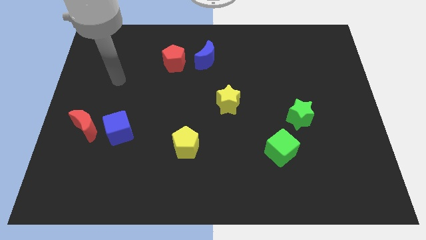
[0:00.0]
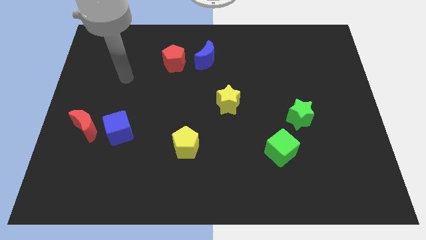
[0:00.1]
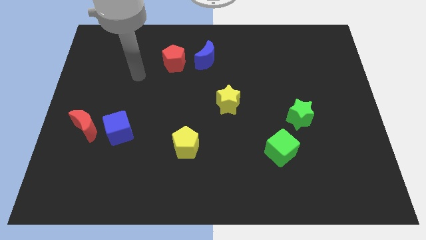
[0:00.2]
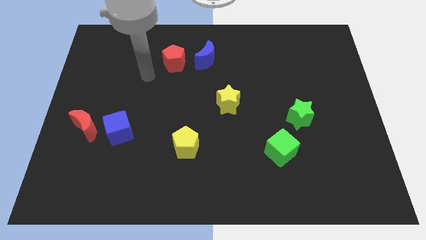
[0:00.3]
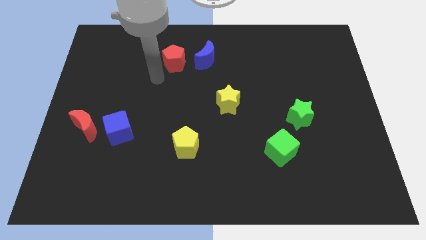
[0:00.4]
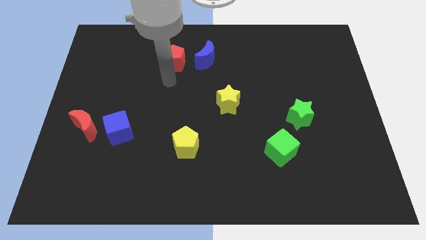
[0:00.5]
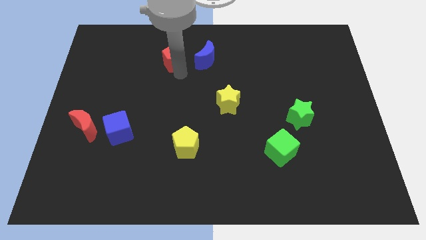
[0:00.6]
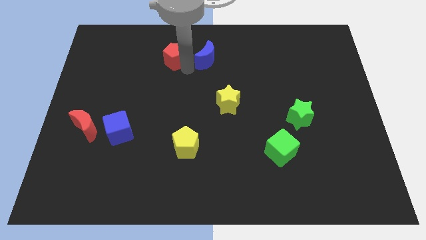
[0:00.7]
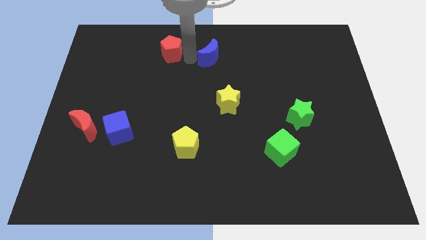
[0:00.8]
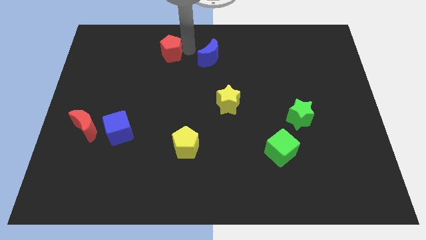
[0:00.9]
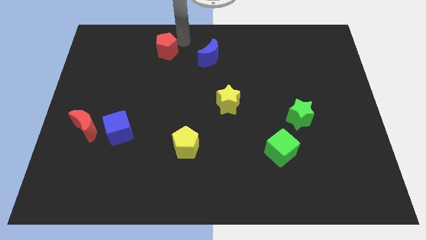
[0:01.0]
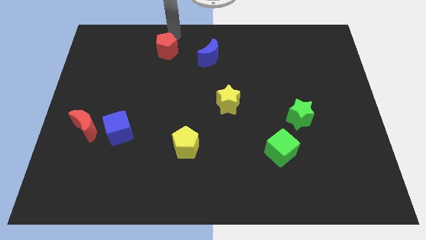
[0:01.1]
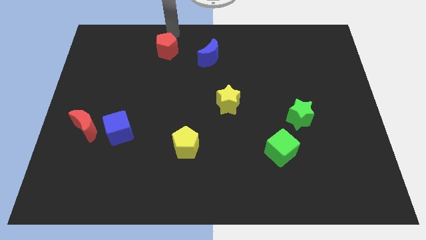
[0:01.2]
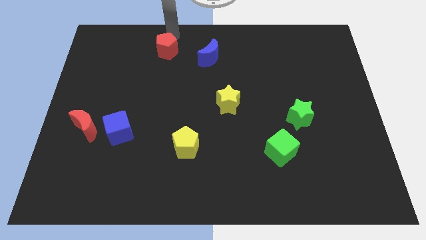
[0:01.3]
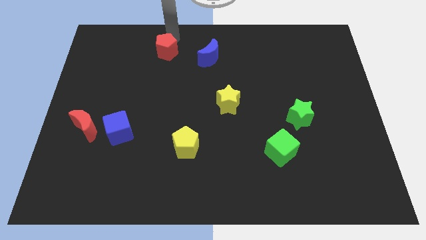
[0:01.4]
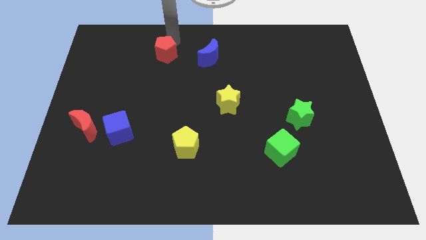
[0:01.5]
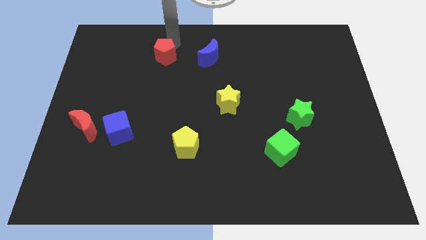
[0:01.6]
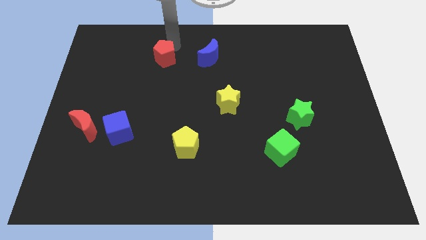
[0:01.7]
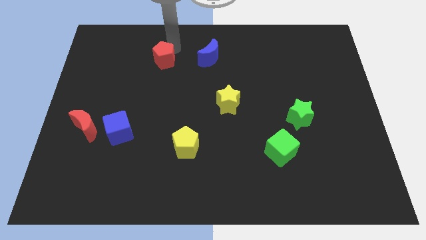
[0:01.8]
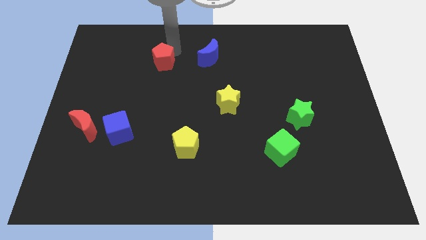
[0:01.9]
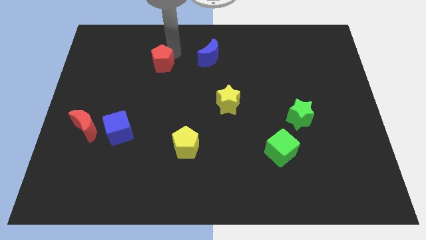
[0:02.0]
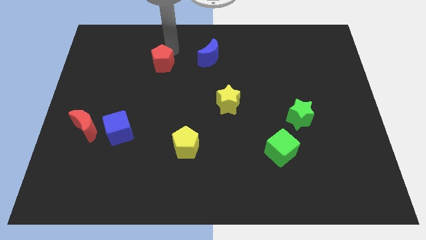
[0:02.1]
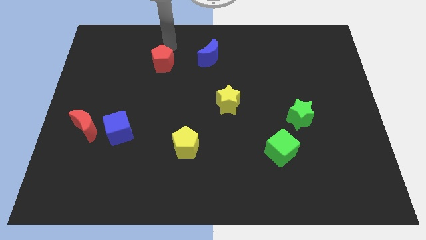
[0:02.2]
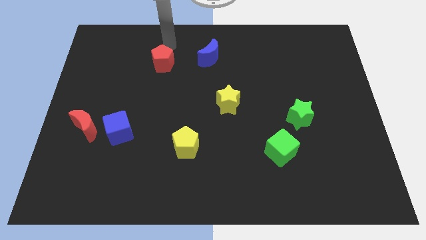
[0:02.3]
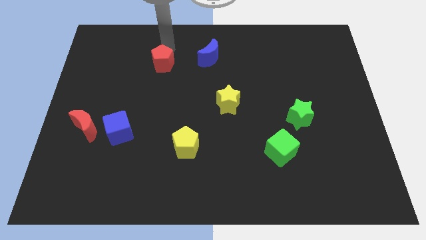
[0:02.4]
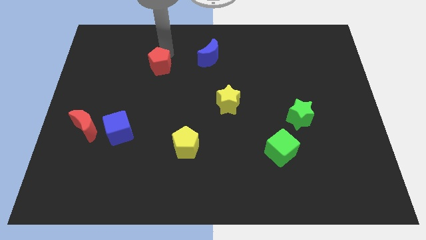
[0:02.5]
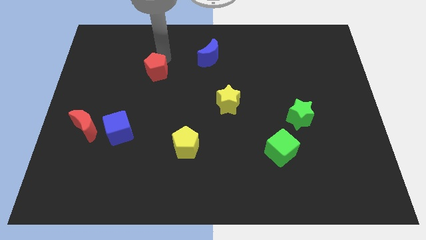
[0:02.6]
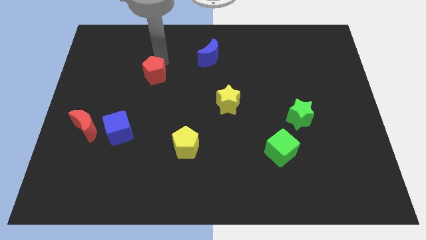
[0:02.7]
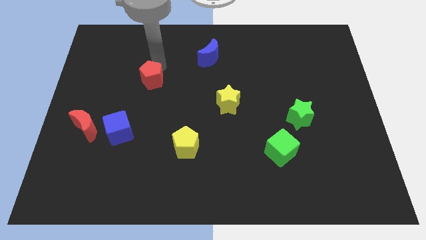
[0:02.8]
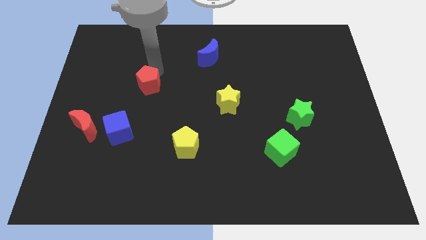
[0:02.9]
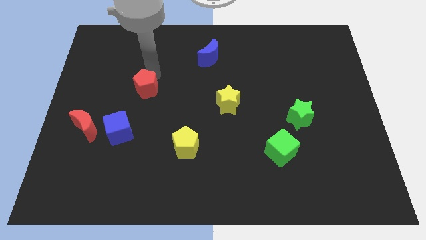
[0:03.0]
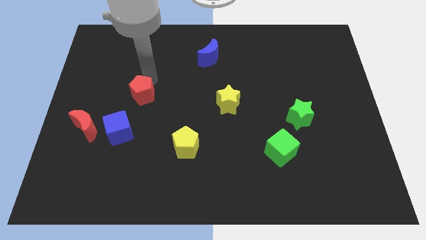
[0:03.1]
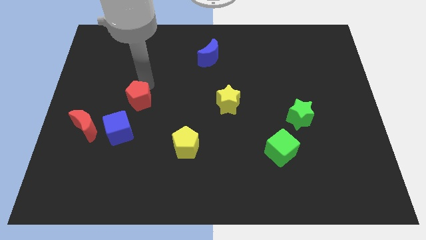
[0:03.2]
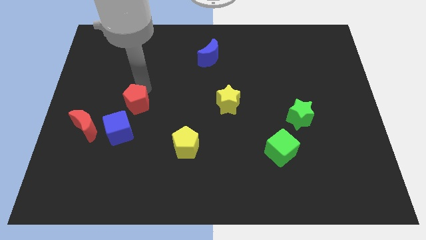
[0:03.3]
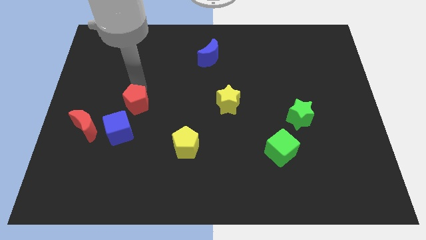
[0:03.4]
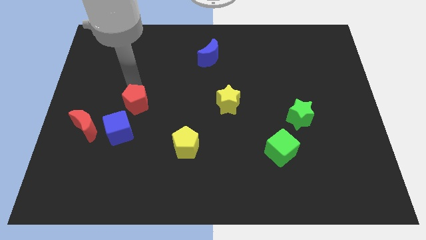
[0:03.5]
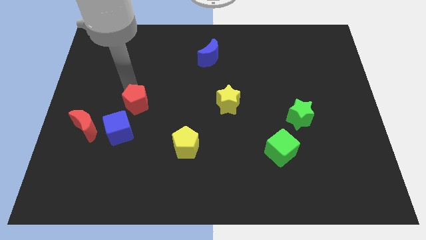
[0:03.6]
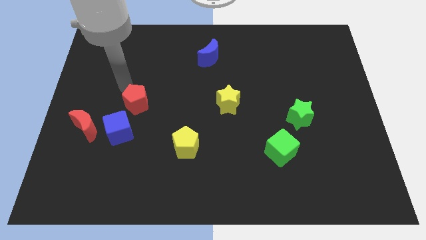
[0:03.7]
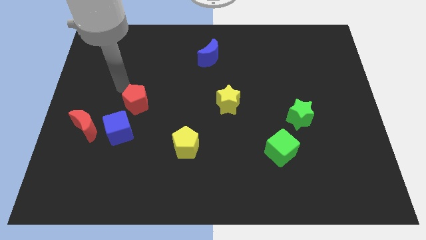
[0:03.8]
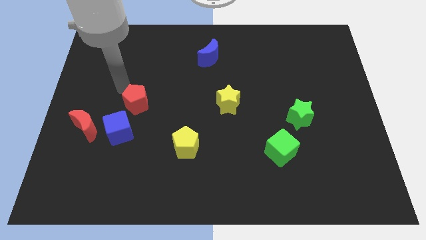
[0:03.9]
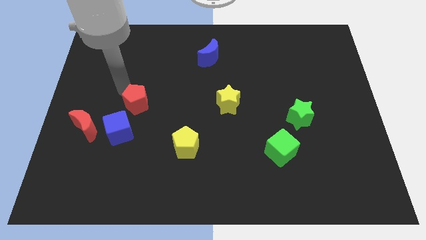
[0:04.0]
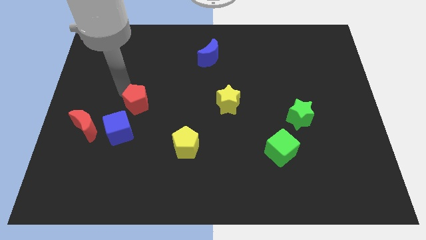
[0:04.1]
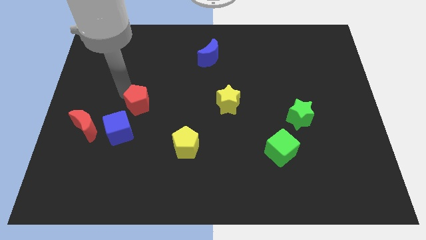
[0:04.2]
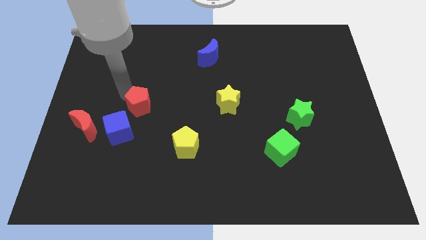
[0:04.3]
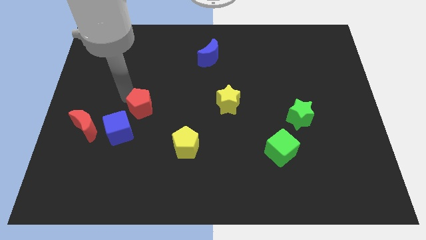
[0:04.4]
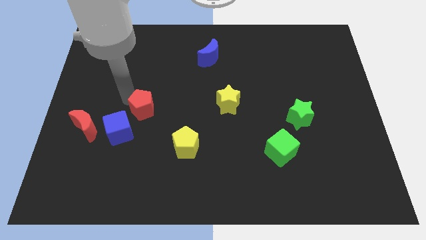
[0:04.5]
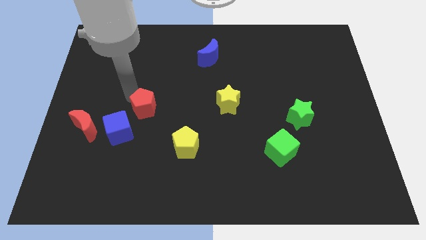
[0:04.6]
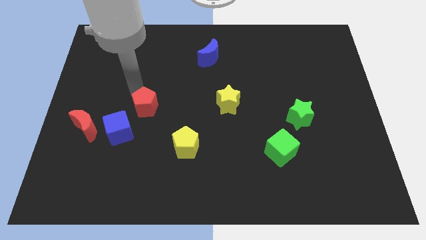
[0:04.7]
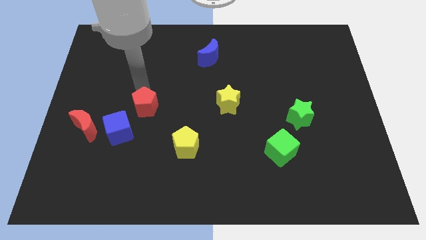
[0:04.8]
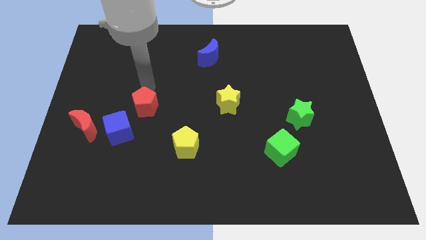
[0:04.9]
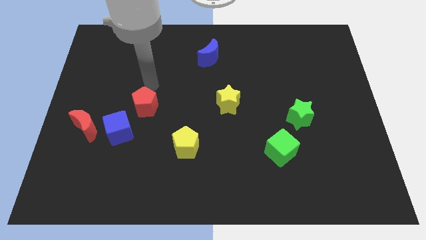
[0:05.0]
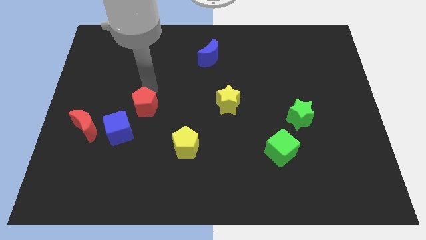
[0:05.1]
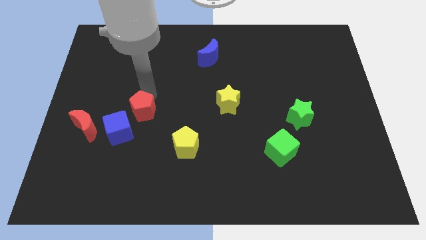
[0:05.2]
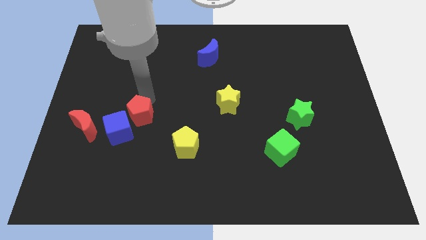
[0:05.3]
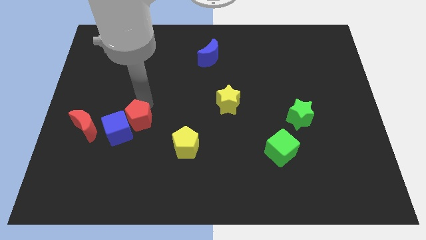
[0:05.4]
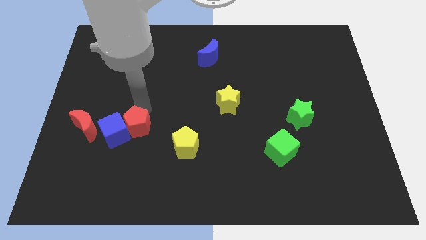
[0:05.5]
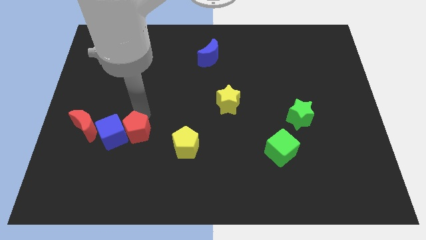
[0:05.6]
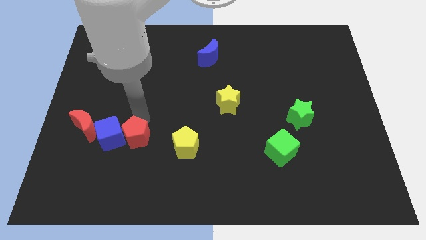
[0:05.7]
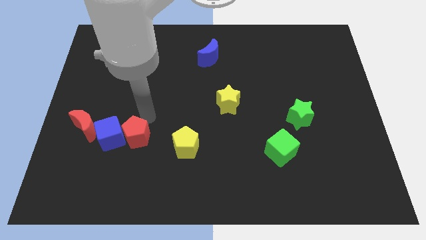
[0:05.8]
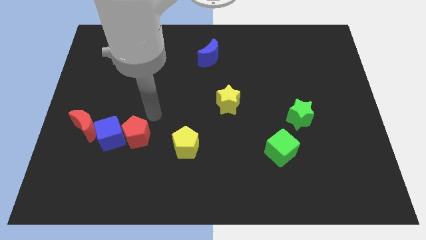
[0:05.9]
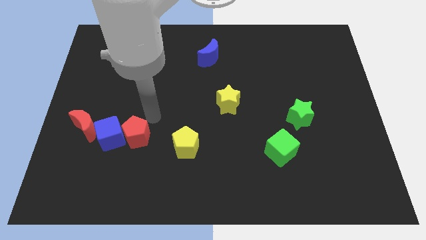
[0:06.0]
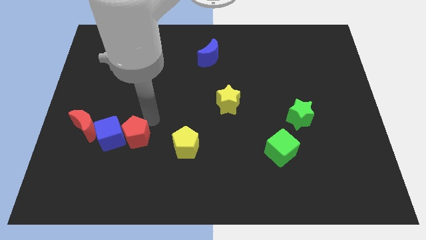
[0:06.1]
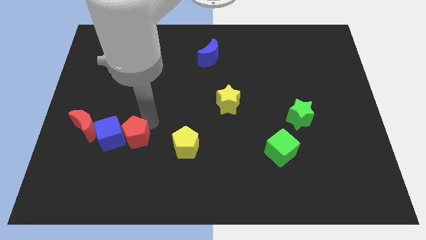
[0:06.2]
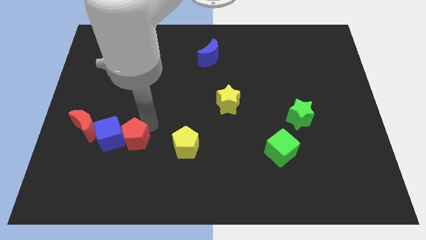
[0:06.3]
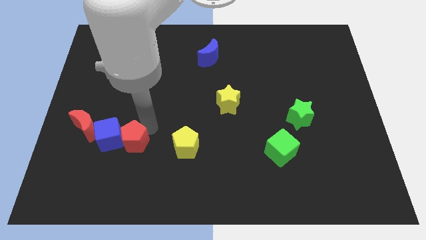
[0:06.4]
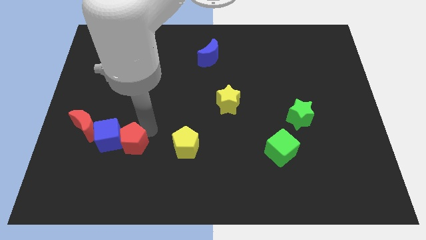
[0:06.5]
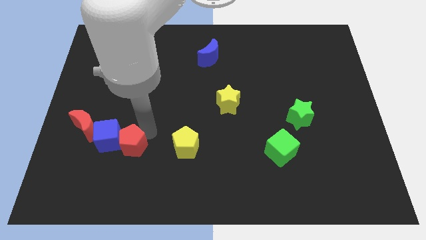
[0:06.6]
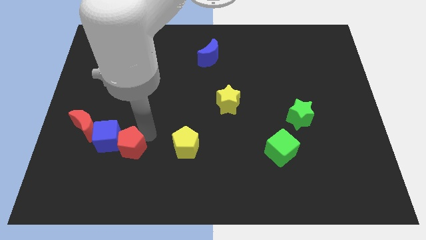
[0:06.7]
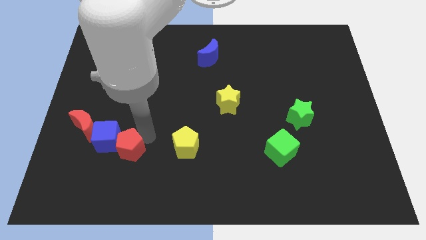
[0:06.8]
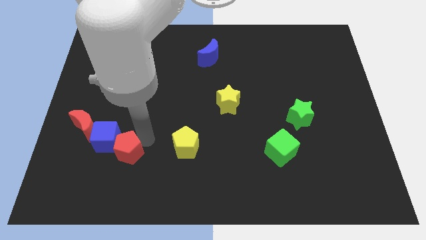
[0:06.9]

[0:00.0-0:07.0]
put the red pentagon to the bottom right of the red moon
